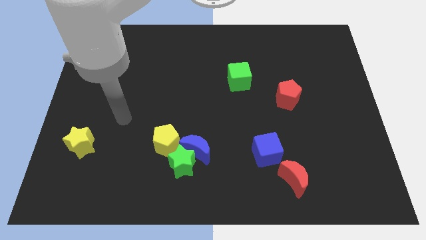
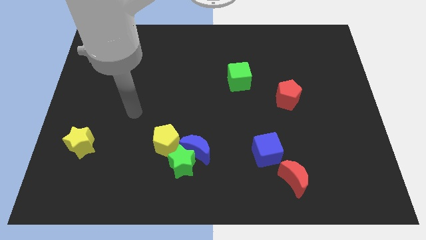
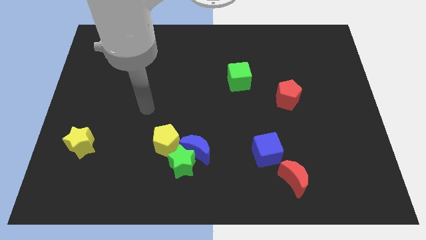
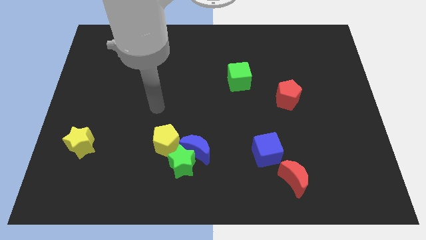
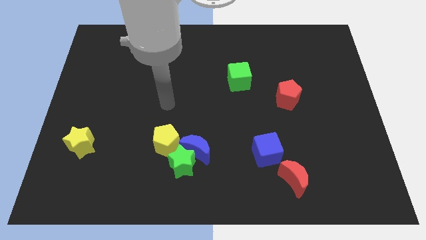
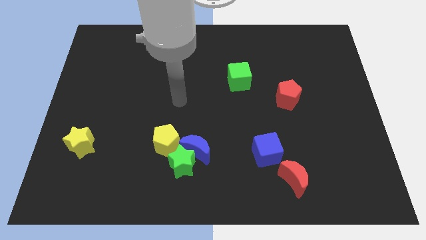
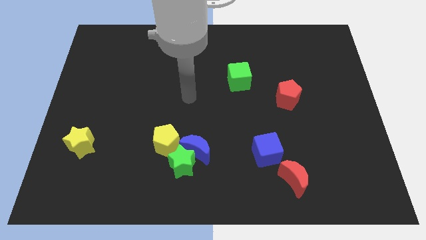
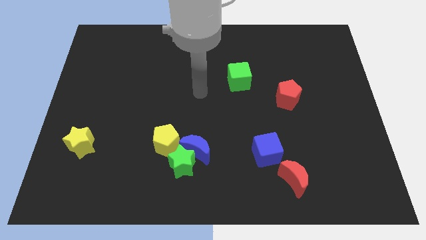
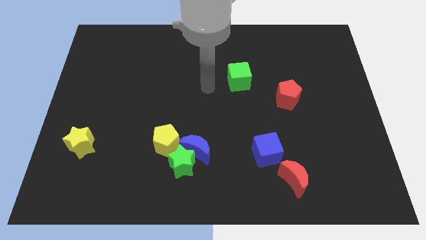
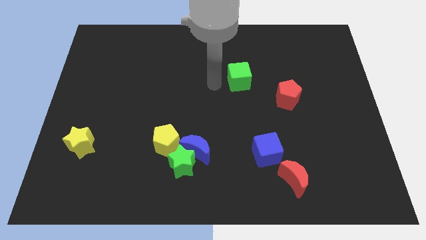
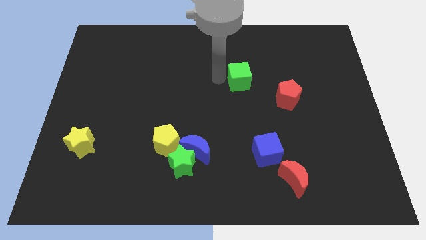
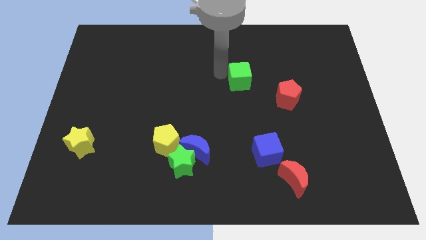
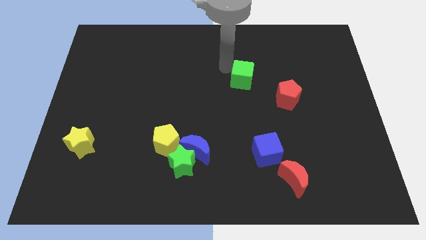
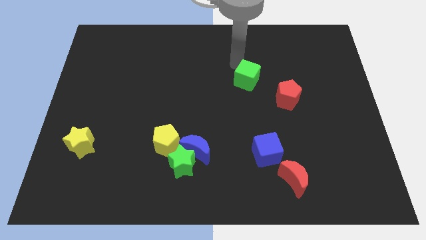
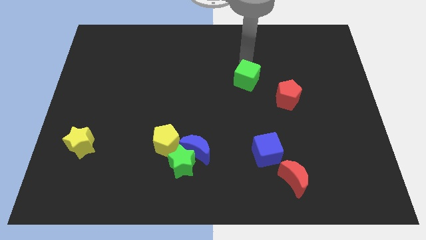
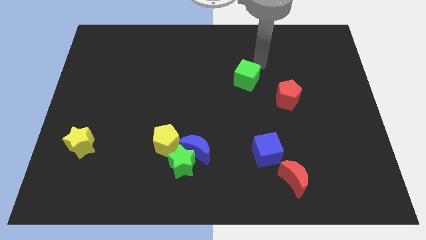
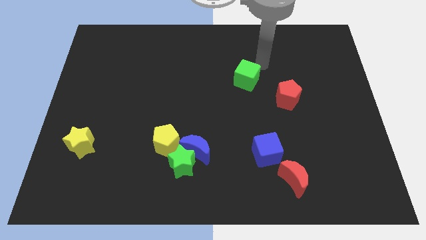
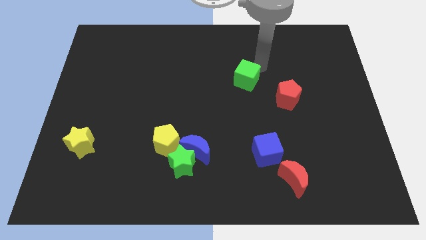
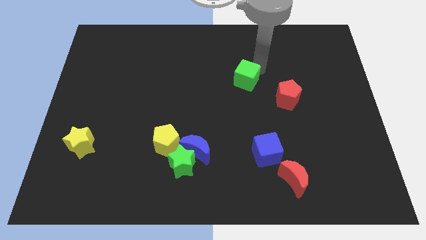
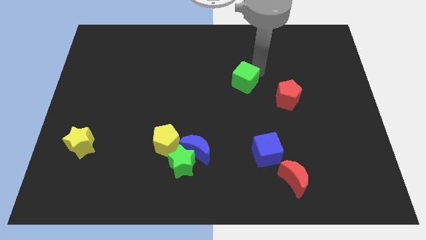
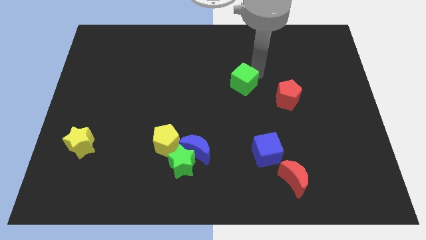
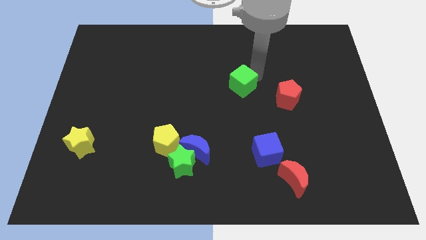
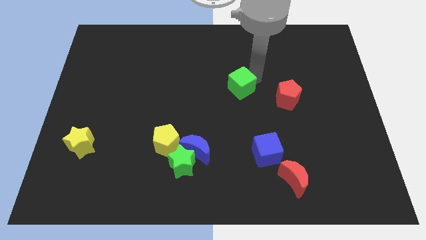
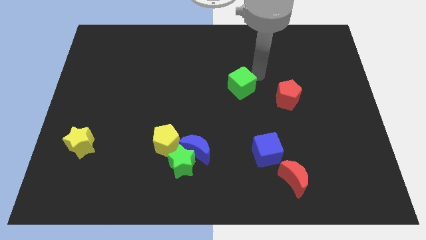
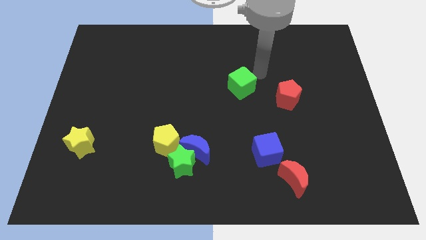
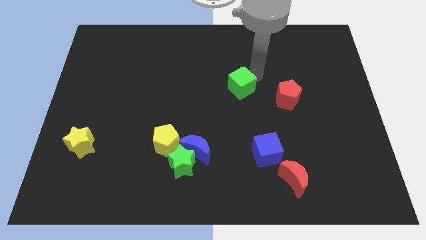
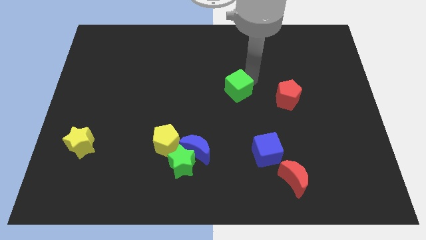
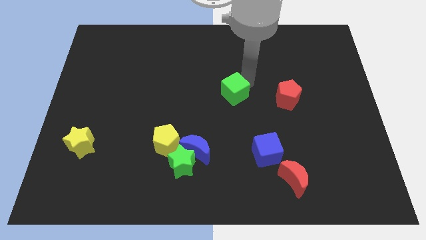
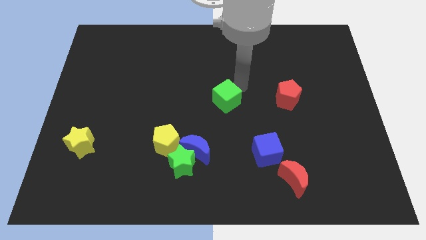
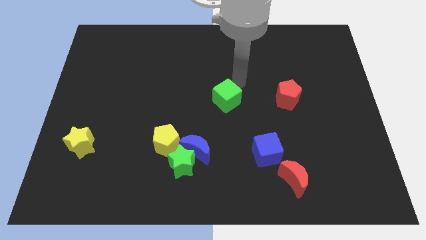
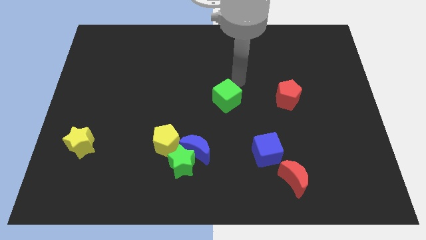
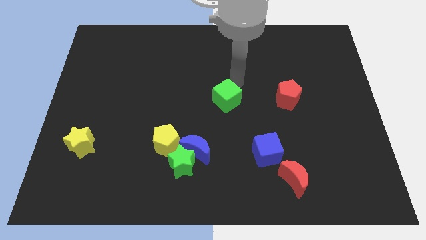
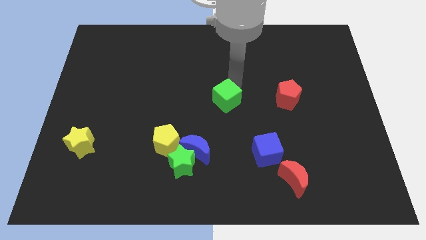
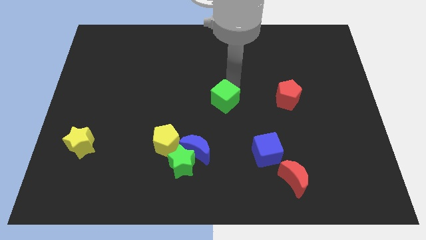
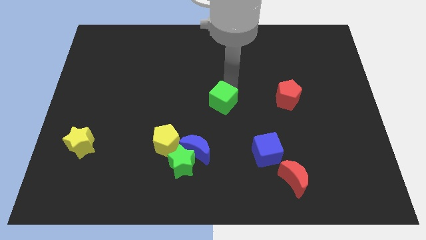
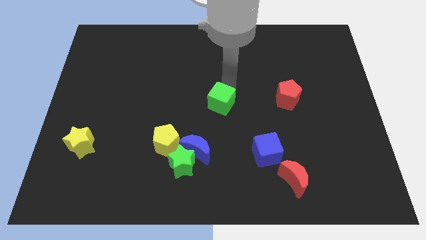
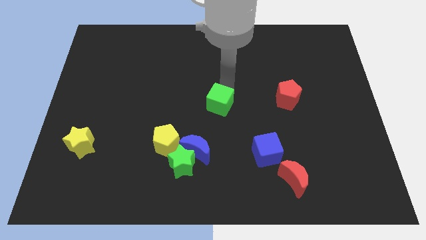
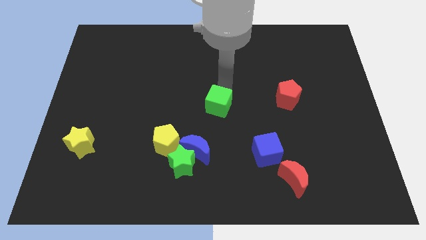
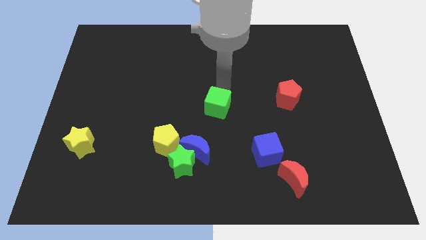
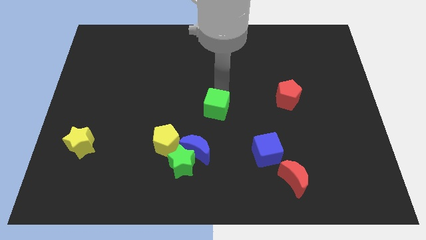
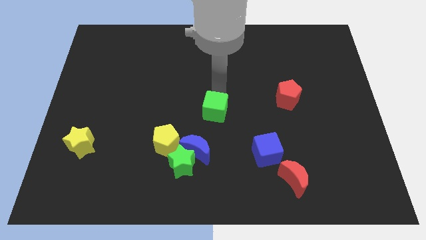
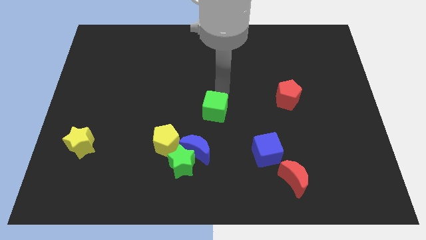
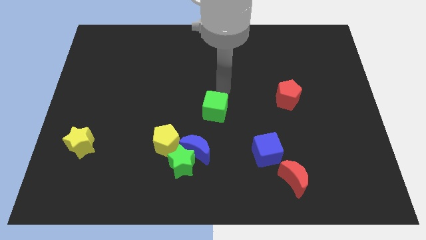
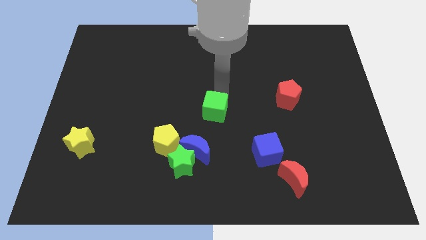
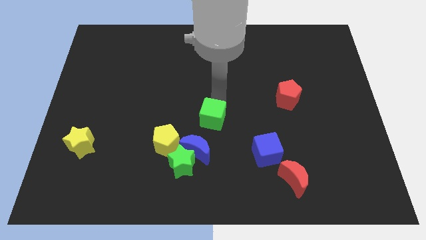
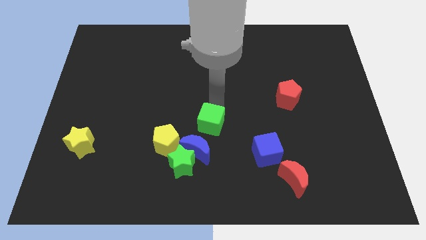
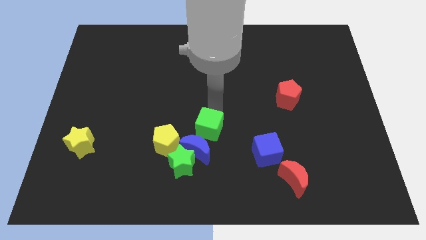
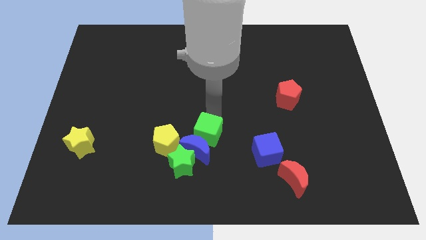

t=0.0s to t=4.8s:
push the green cube close to the blue moon

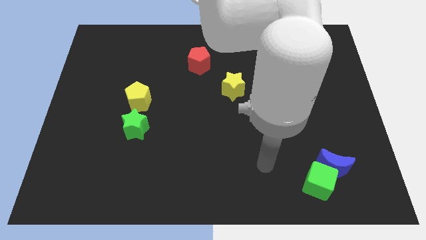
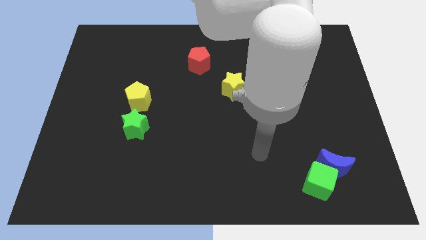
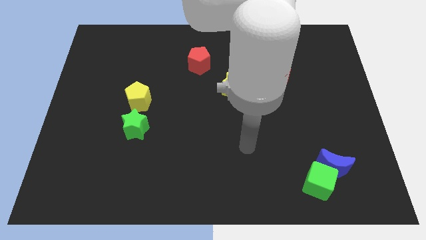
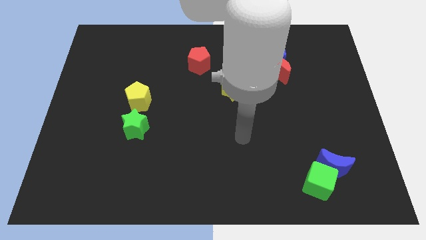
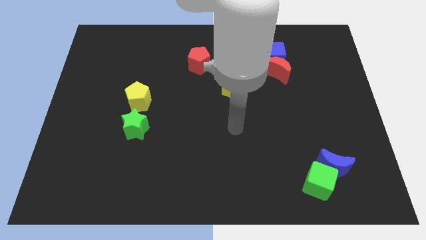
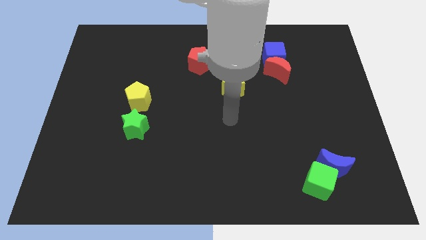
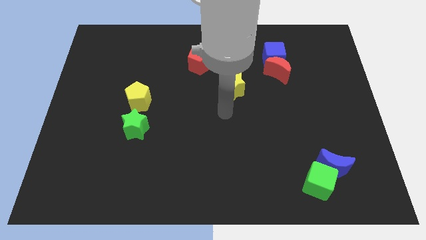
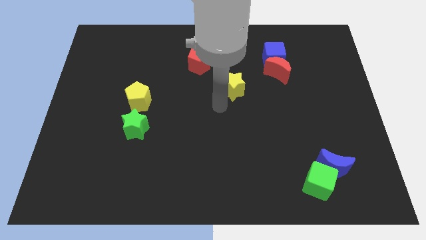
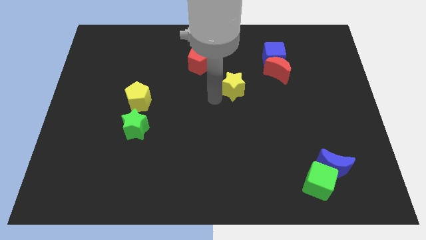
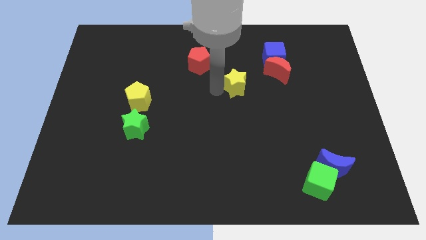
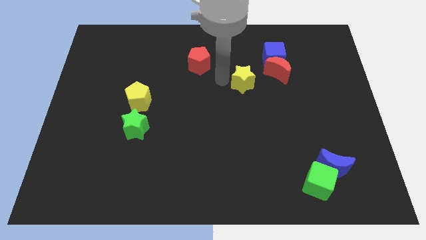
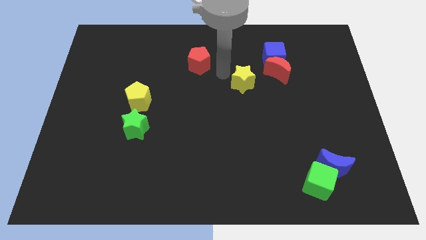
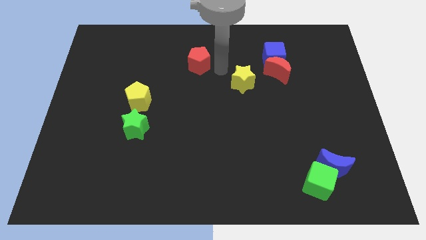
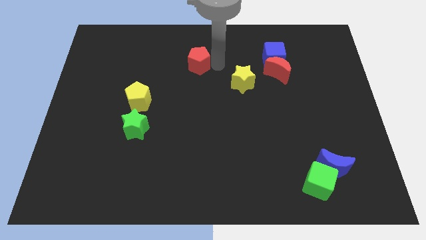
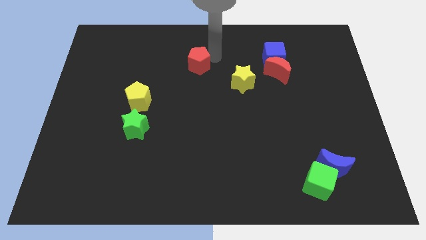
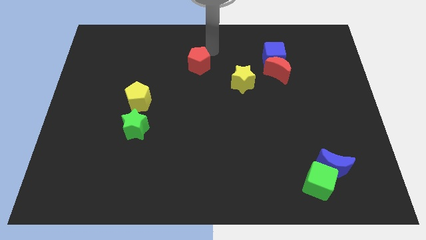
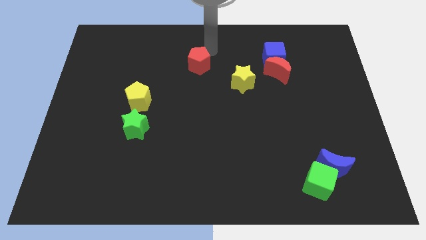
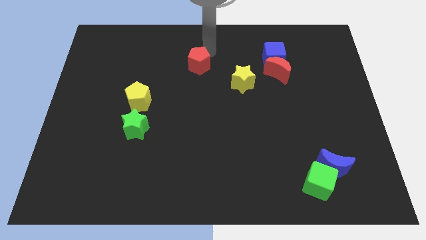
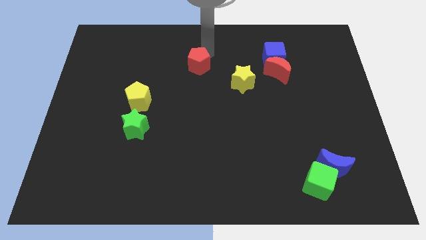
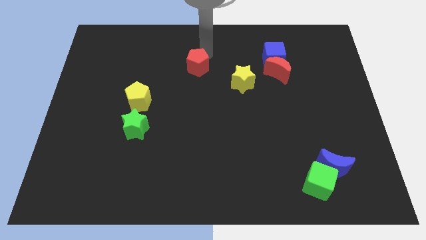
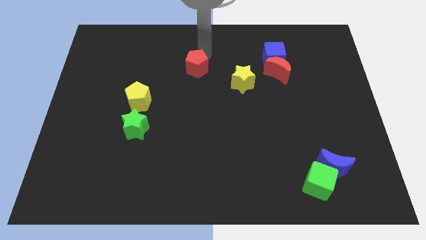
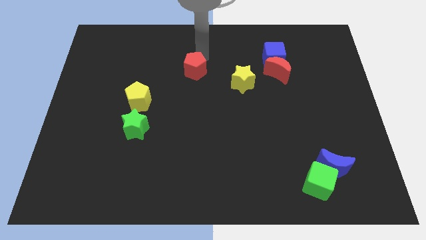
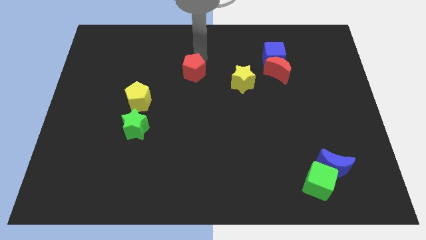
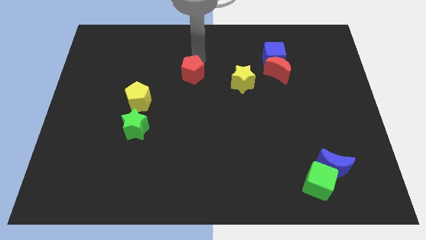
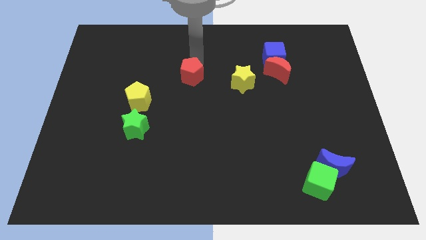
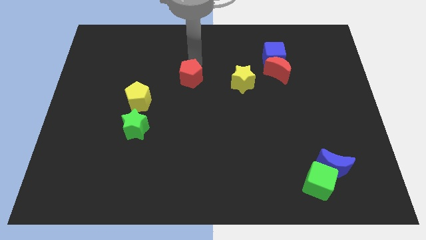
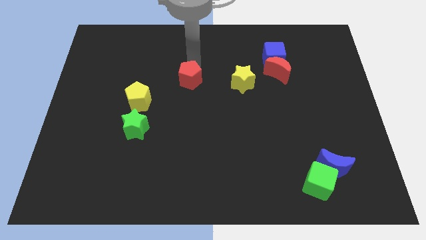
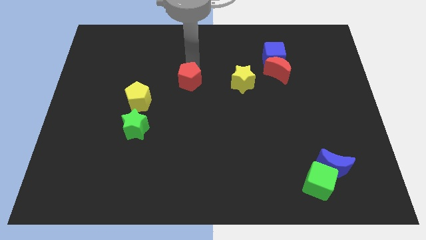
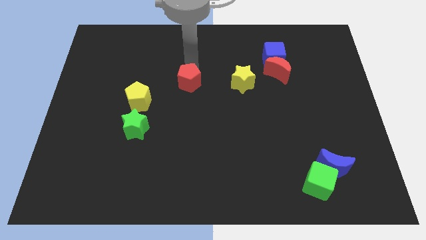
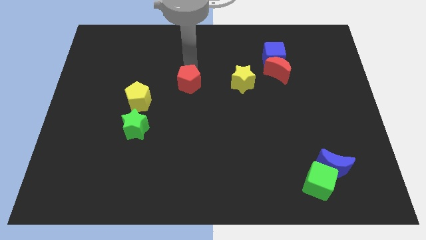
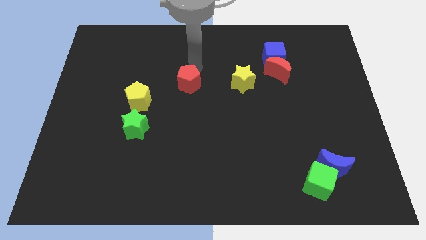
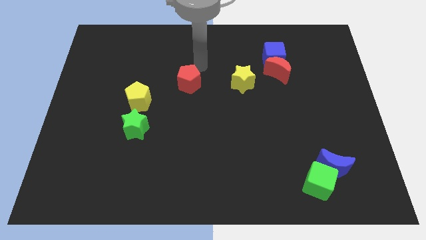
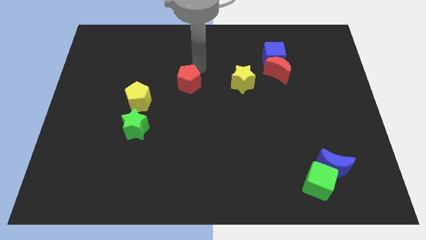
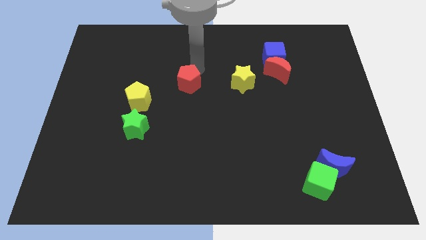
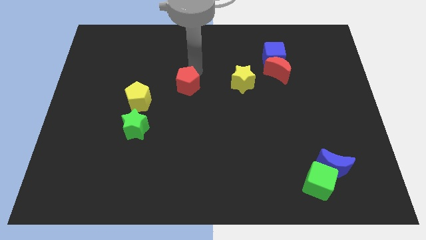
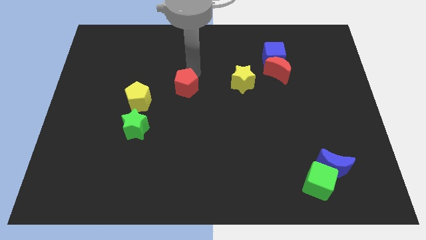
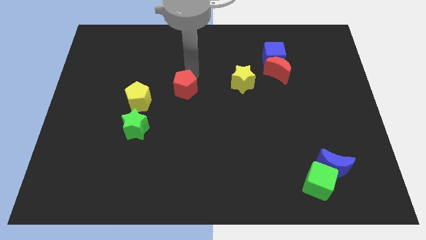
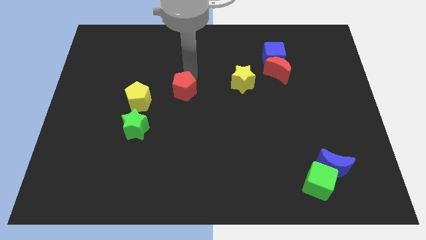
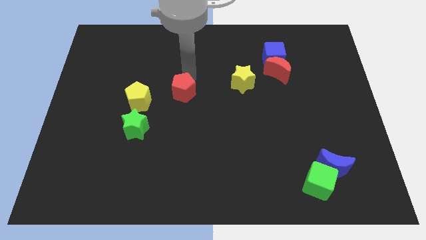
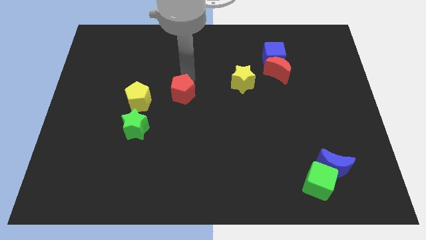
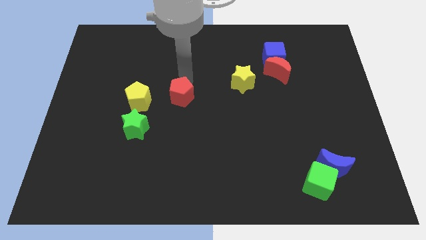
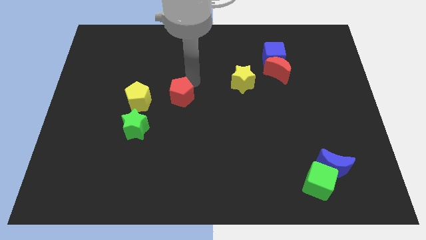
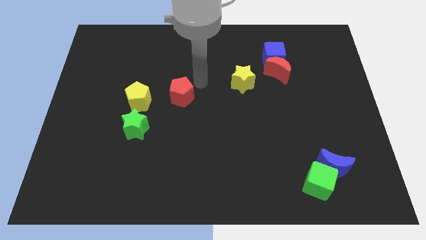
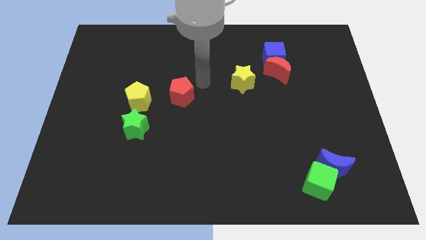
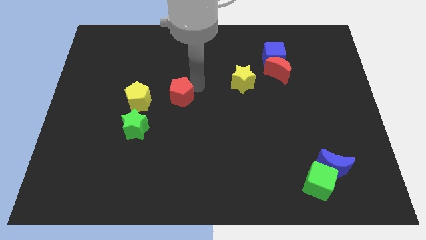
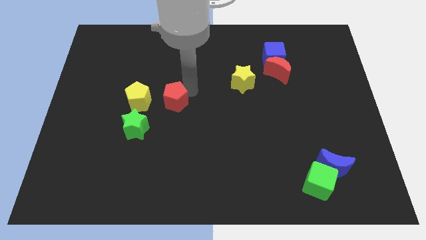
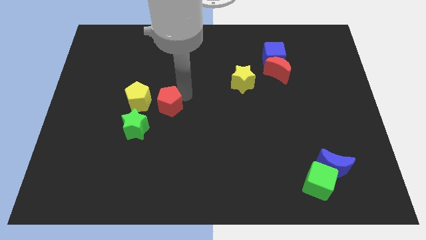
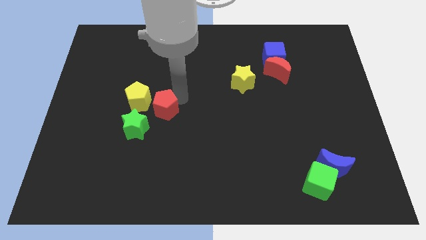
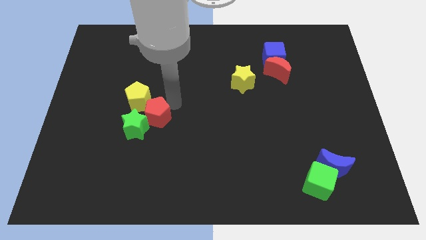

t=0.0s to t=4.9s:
move the red pentagon towards the green star
